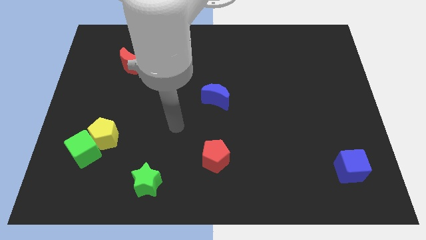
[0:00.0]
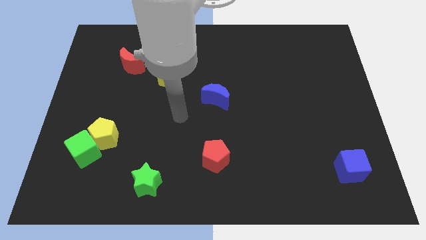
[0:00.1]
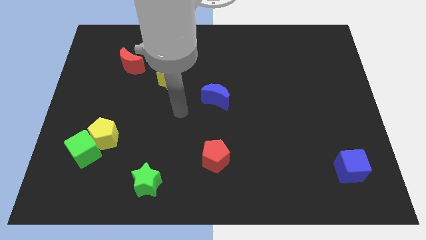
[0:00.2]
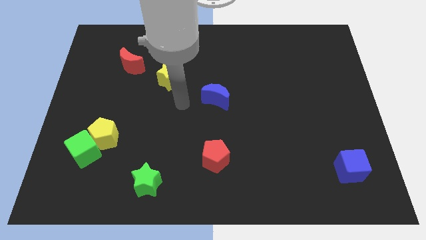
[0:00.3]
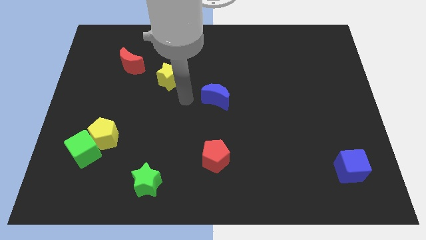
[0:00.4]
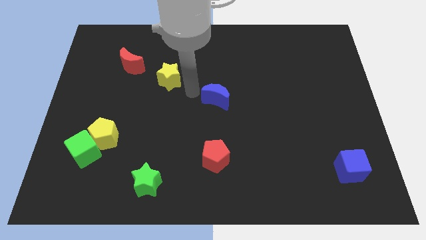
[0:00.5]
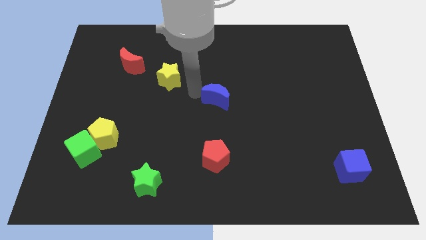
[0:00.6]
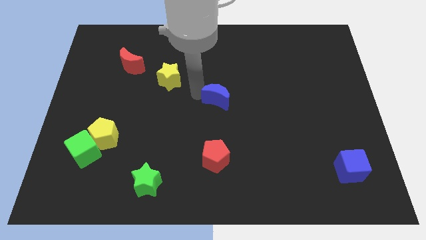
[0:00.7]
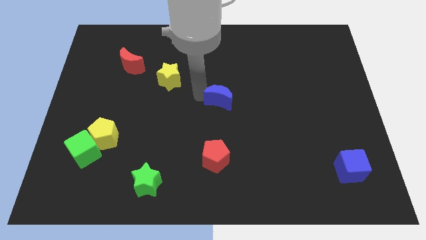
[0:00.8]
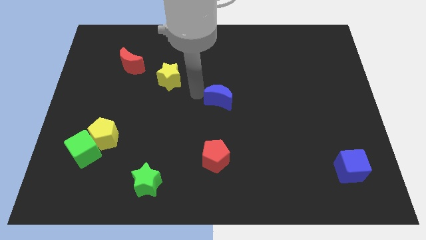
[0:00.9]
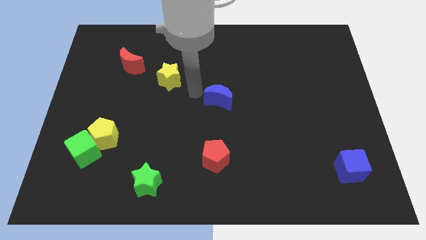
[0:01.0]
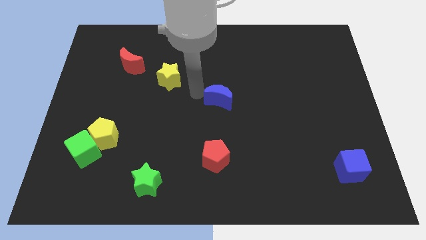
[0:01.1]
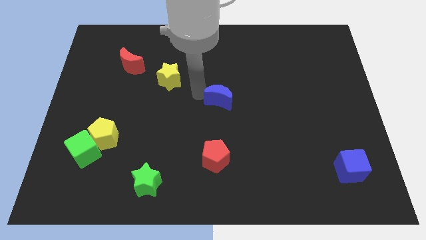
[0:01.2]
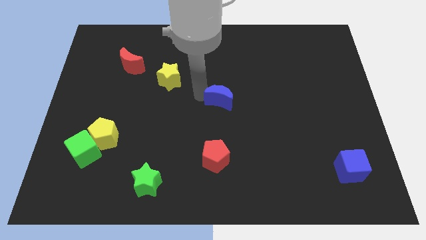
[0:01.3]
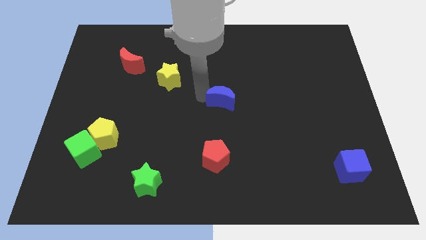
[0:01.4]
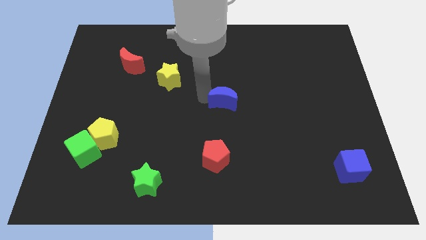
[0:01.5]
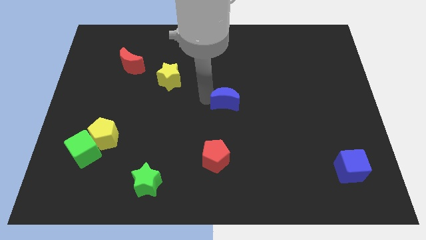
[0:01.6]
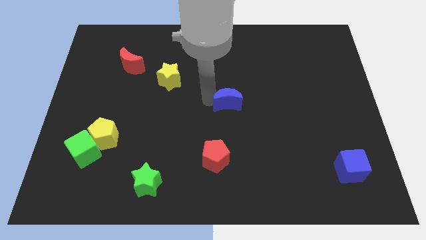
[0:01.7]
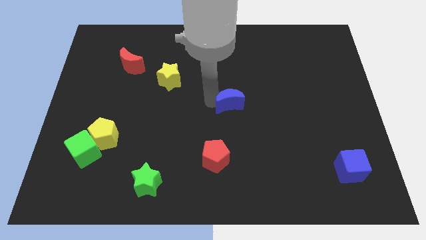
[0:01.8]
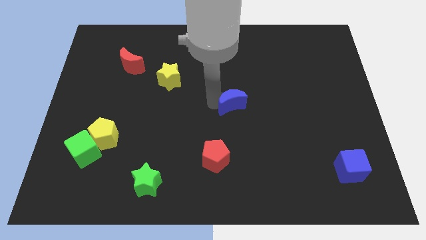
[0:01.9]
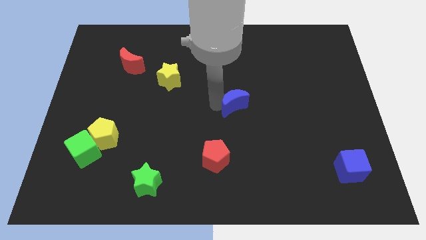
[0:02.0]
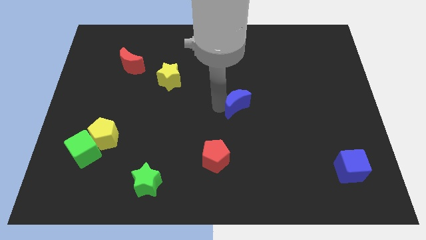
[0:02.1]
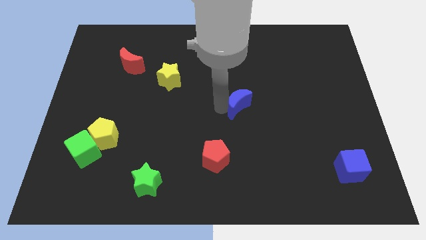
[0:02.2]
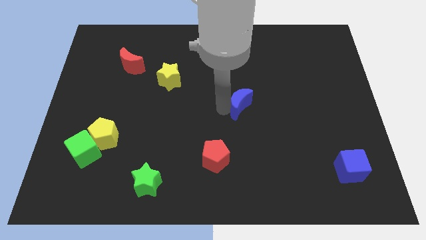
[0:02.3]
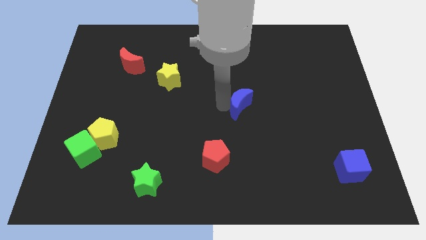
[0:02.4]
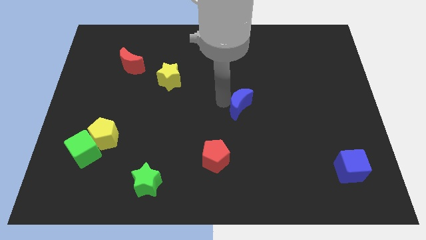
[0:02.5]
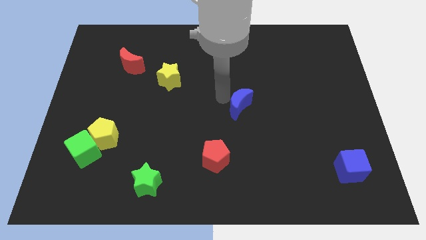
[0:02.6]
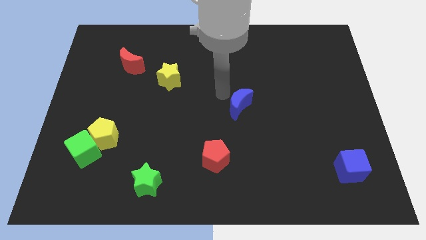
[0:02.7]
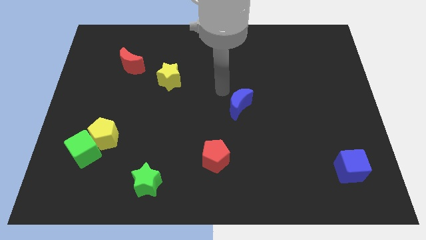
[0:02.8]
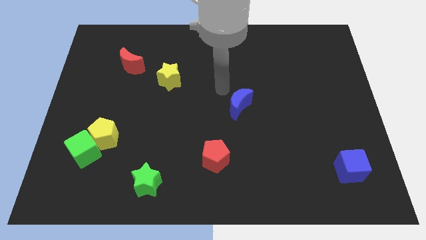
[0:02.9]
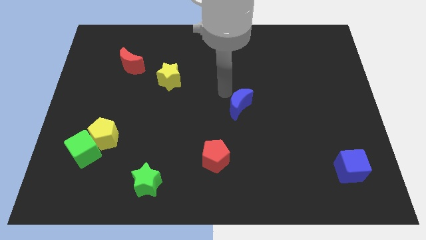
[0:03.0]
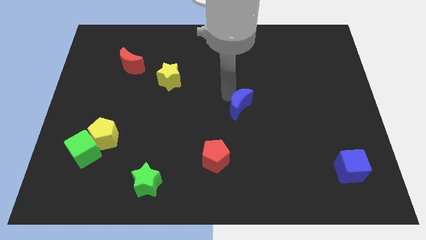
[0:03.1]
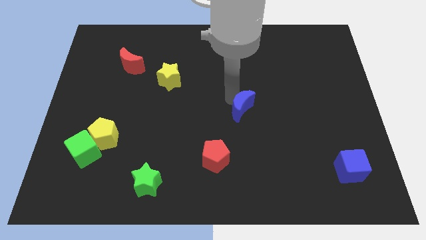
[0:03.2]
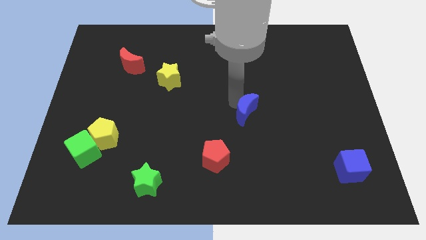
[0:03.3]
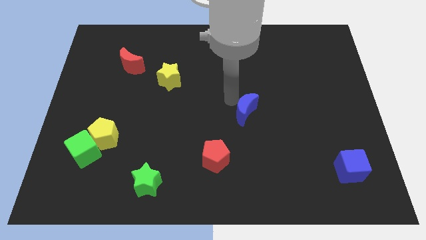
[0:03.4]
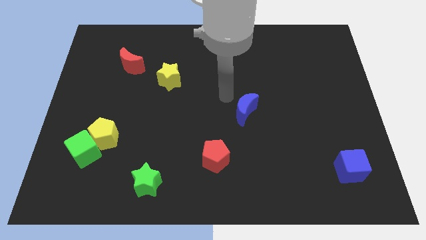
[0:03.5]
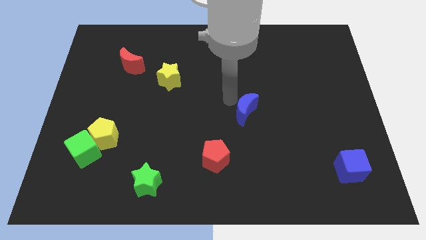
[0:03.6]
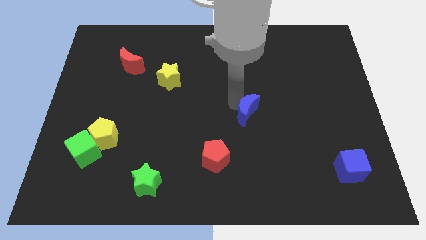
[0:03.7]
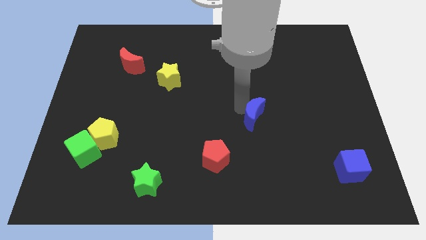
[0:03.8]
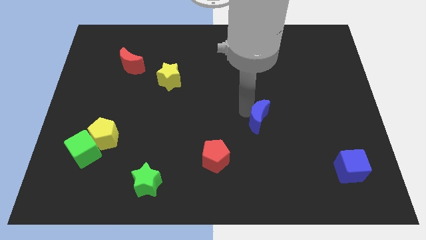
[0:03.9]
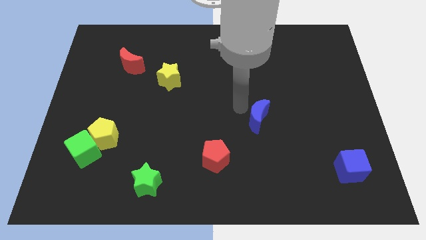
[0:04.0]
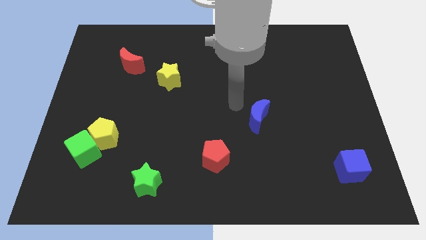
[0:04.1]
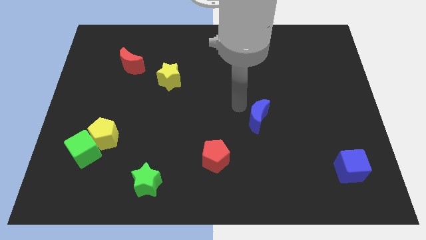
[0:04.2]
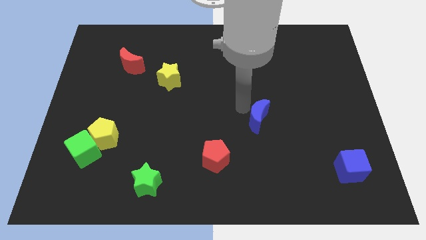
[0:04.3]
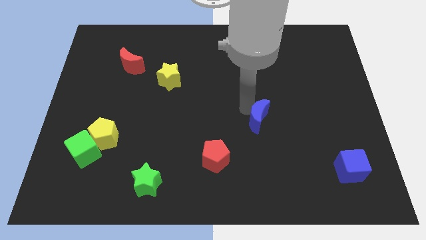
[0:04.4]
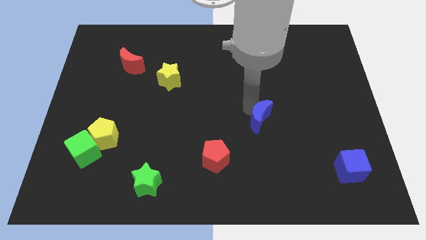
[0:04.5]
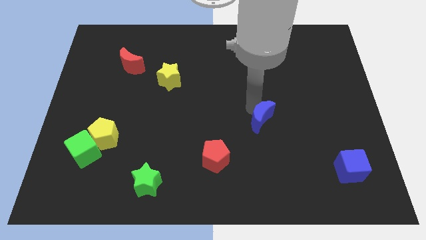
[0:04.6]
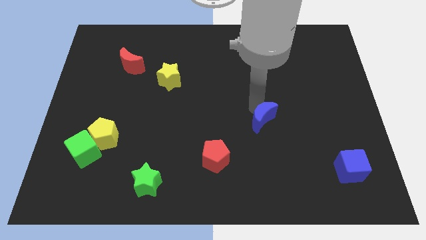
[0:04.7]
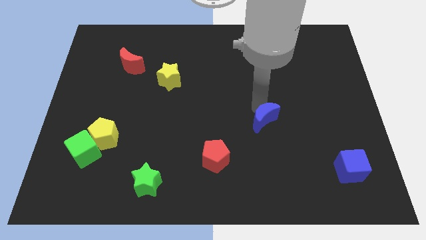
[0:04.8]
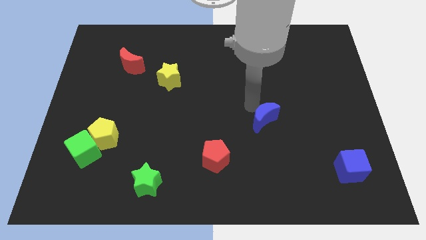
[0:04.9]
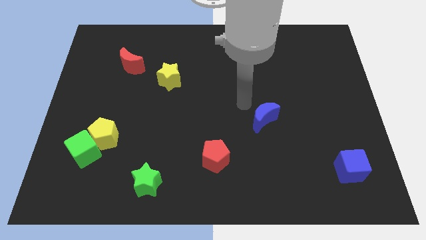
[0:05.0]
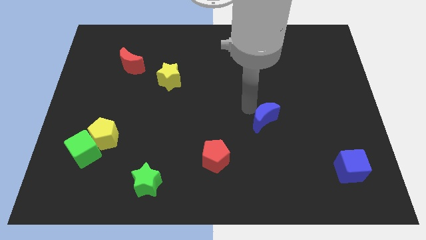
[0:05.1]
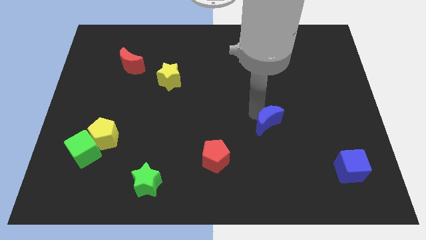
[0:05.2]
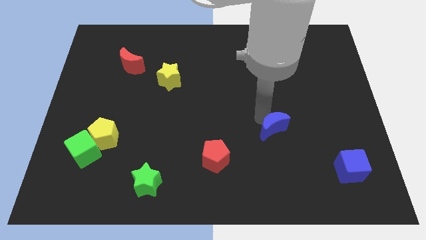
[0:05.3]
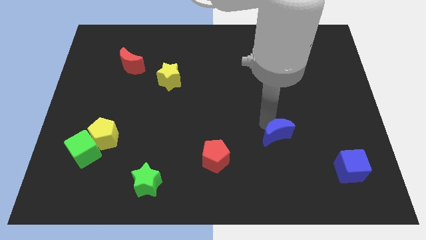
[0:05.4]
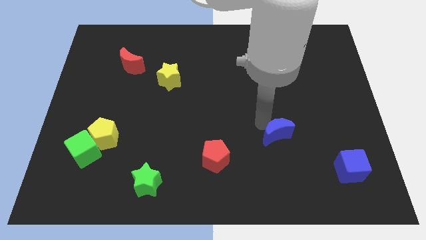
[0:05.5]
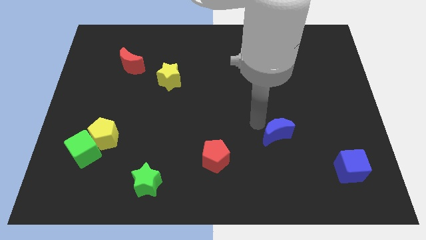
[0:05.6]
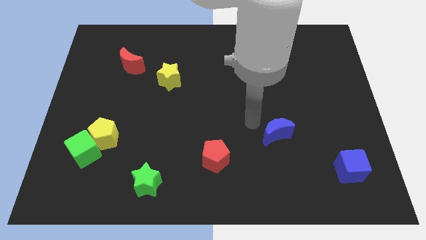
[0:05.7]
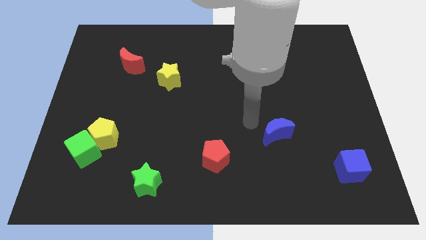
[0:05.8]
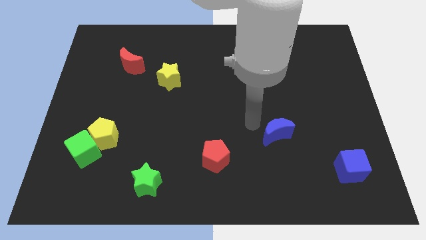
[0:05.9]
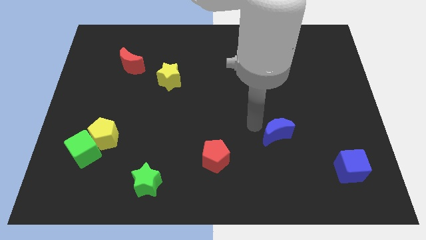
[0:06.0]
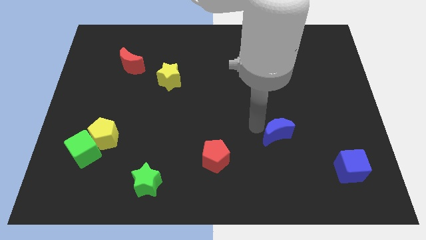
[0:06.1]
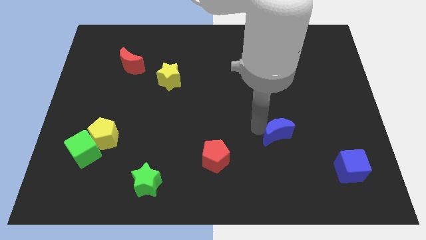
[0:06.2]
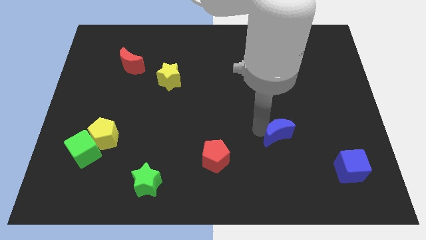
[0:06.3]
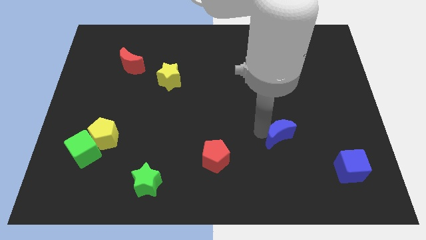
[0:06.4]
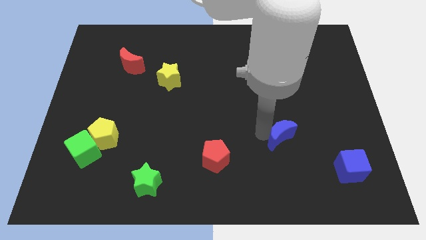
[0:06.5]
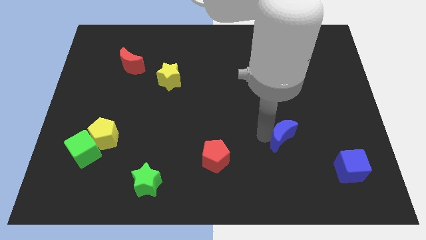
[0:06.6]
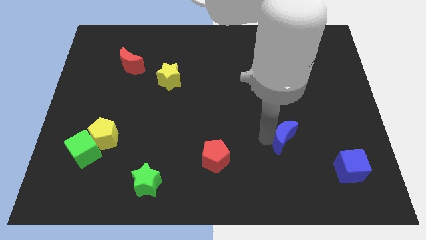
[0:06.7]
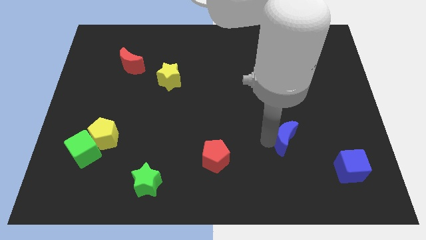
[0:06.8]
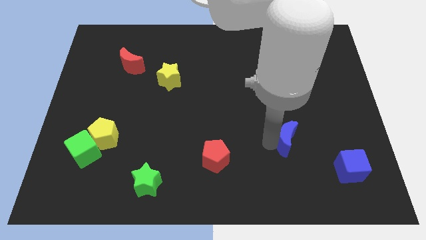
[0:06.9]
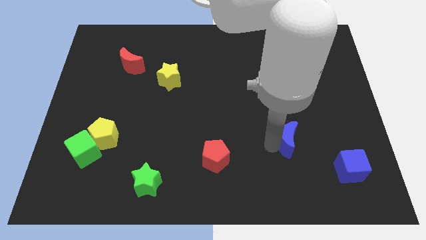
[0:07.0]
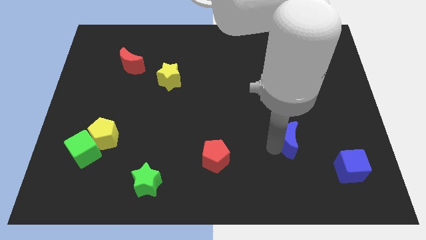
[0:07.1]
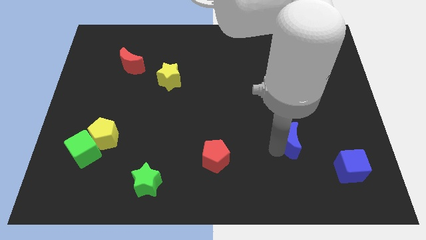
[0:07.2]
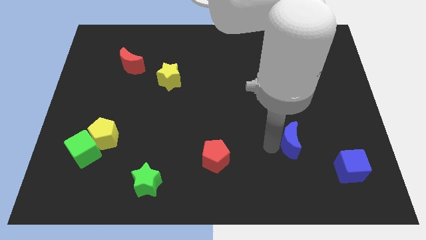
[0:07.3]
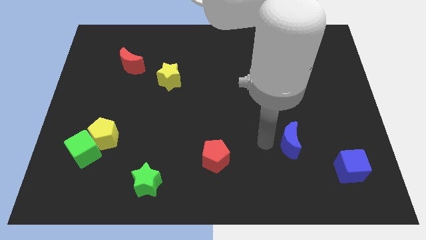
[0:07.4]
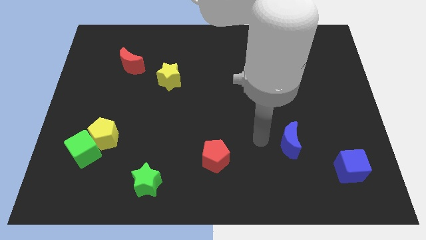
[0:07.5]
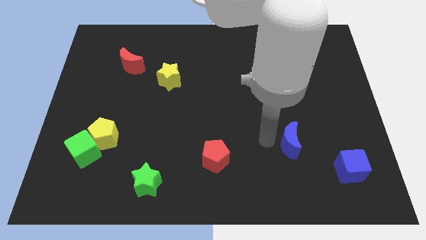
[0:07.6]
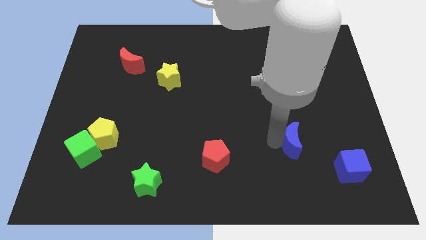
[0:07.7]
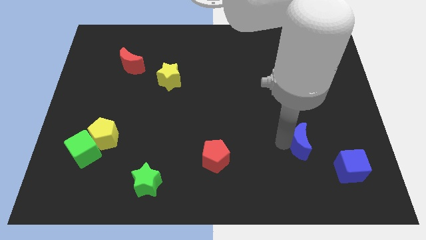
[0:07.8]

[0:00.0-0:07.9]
put the blue moon to the top left of the blue cube
